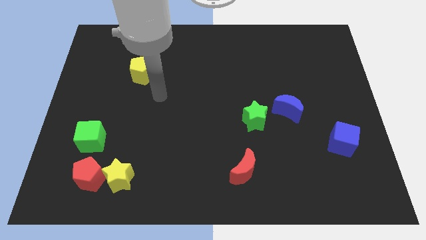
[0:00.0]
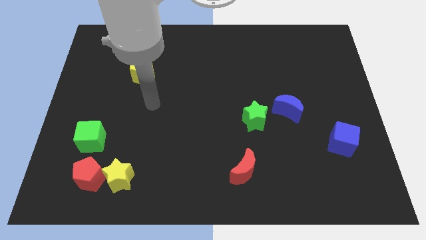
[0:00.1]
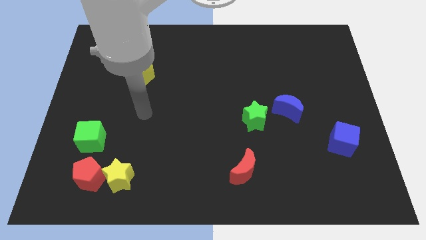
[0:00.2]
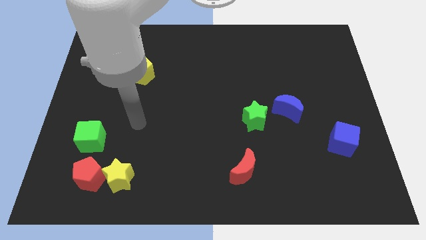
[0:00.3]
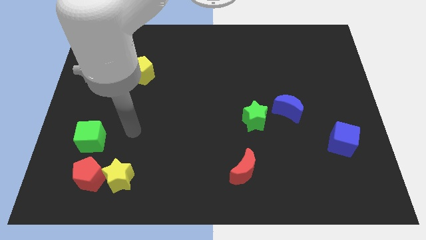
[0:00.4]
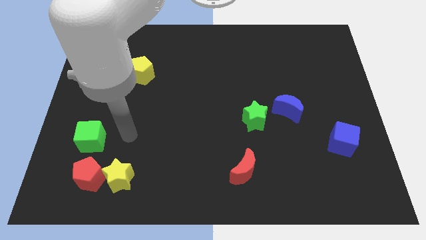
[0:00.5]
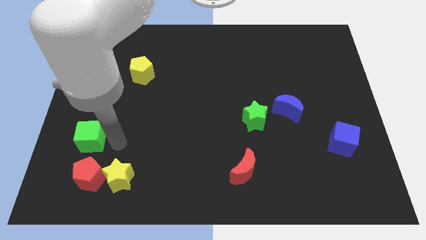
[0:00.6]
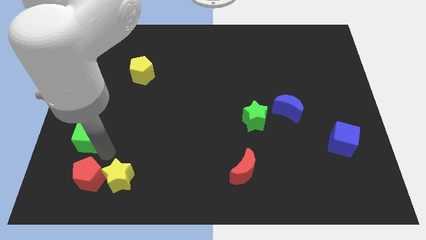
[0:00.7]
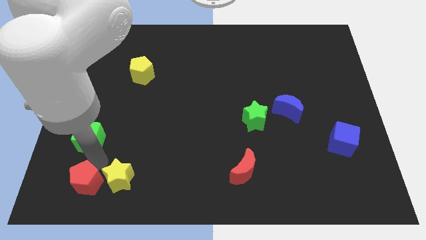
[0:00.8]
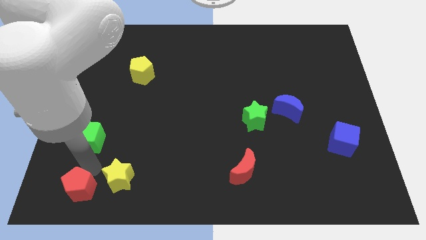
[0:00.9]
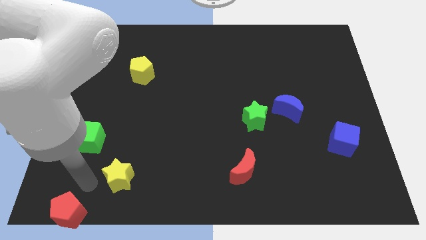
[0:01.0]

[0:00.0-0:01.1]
pull the yellow star apart from the red pentagon

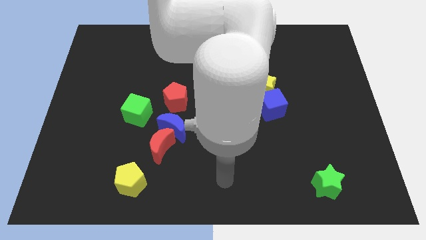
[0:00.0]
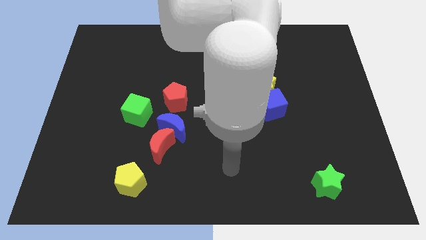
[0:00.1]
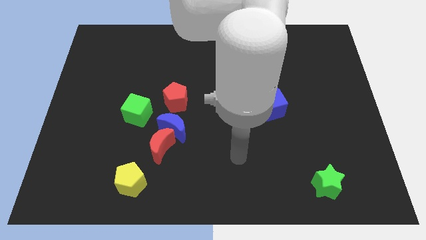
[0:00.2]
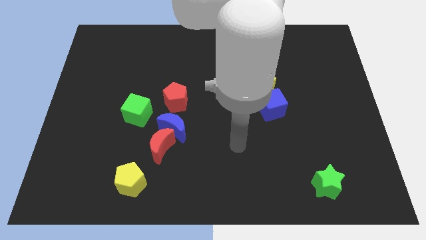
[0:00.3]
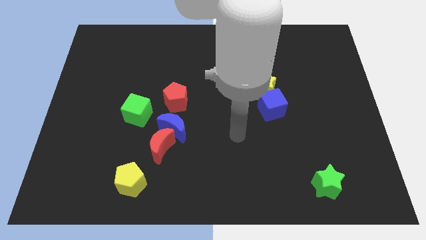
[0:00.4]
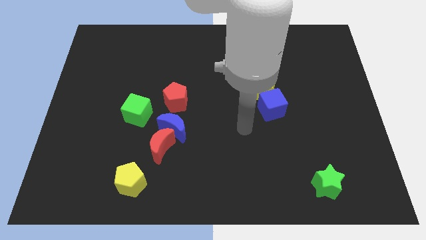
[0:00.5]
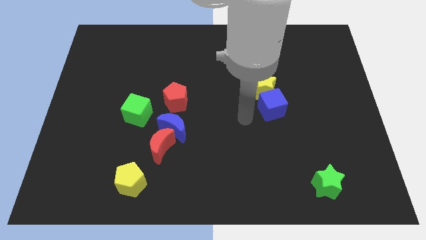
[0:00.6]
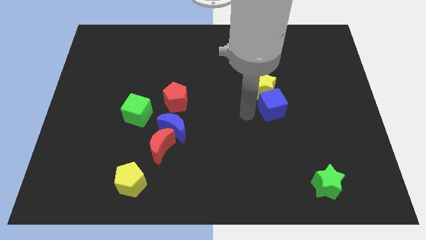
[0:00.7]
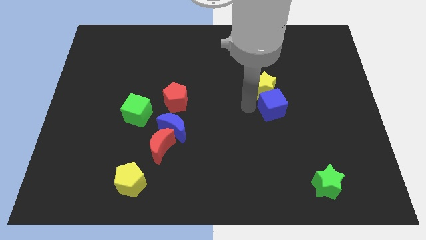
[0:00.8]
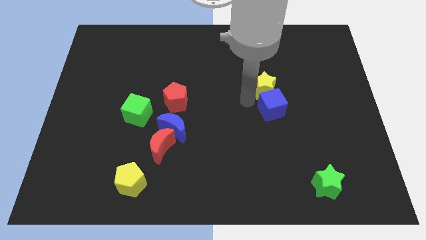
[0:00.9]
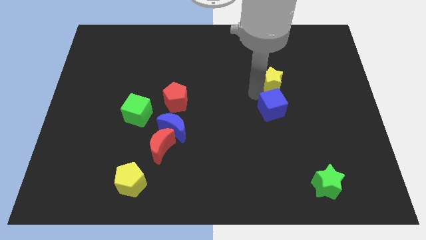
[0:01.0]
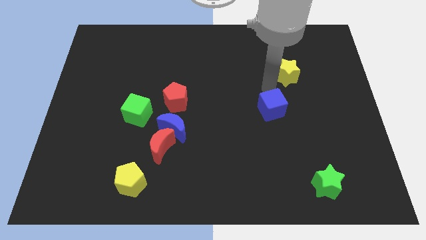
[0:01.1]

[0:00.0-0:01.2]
pull the blue cube apart from the yellow star

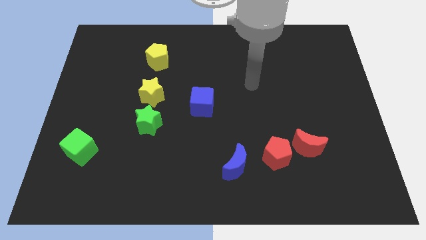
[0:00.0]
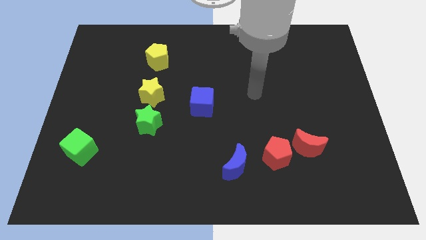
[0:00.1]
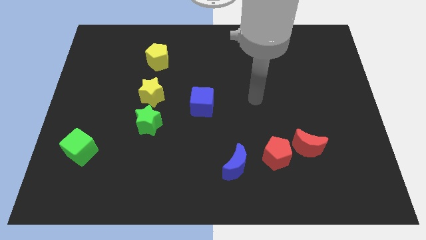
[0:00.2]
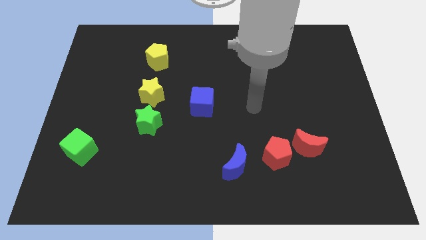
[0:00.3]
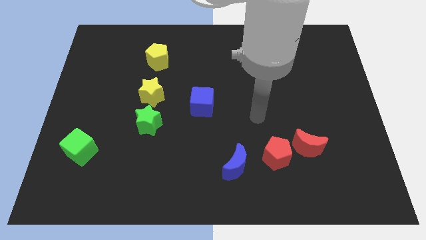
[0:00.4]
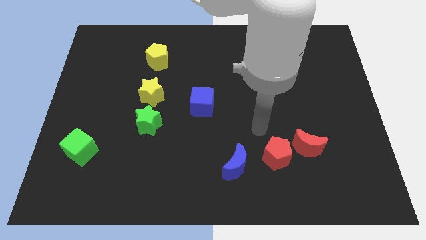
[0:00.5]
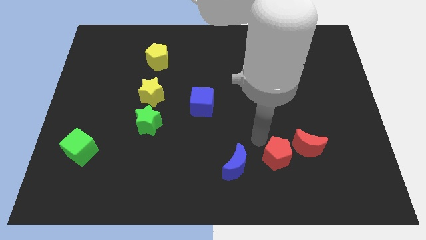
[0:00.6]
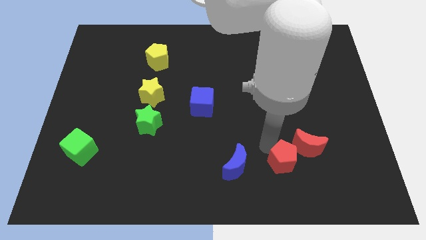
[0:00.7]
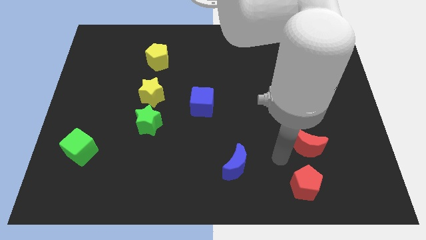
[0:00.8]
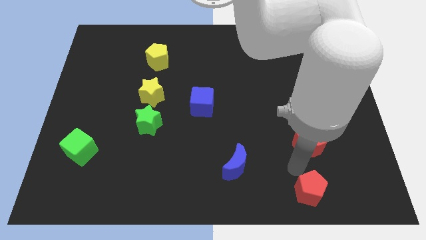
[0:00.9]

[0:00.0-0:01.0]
separate the red moon from the red pentagon

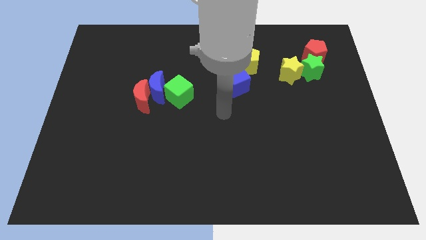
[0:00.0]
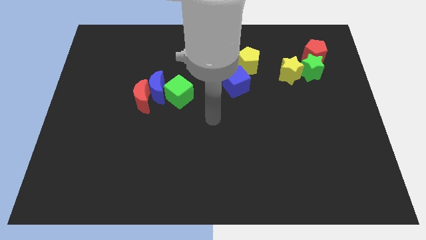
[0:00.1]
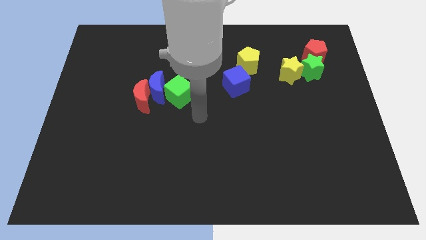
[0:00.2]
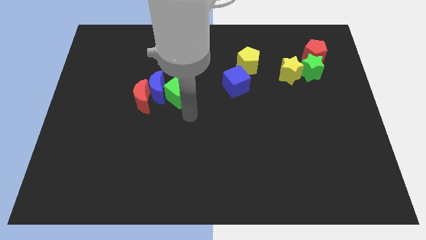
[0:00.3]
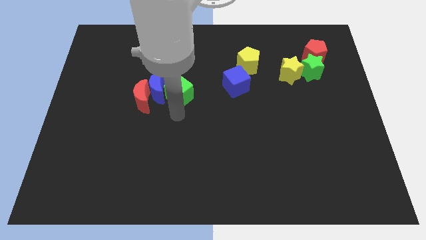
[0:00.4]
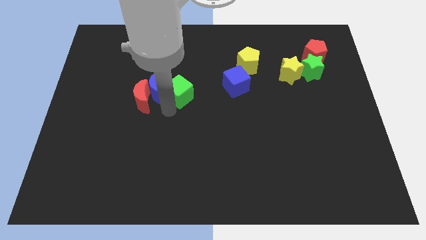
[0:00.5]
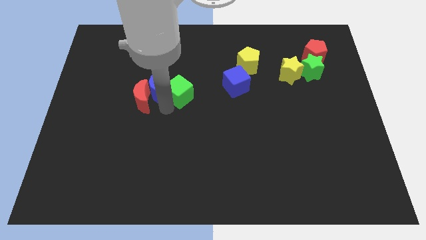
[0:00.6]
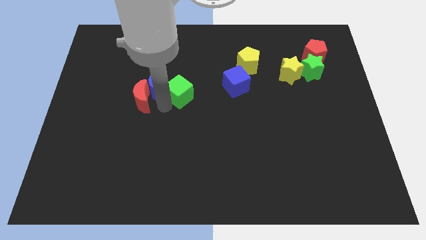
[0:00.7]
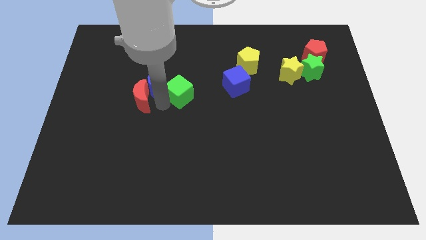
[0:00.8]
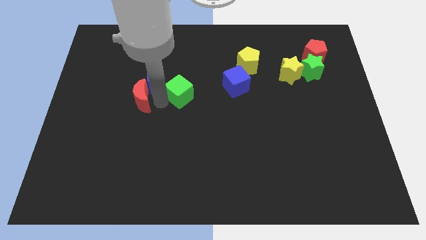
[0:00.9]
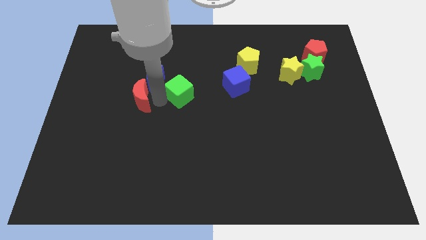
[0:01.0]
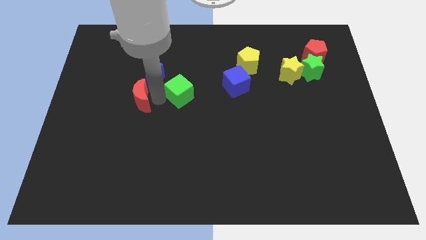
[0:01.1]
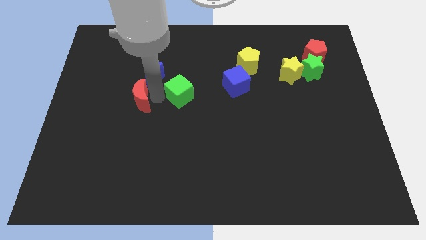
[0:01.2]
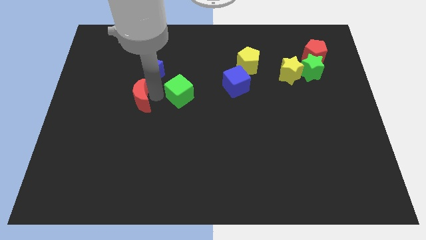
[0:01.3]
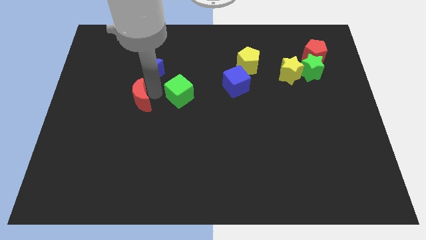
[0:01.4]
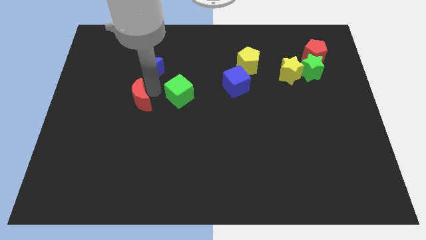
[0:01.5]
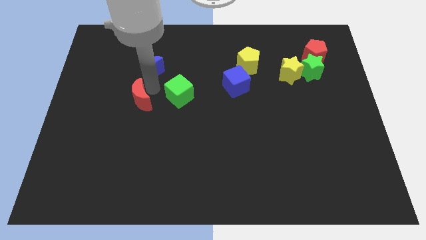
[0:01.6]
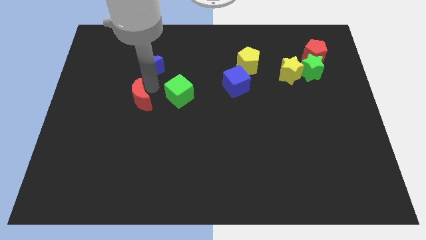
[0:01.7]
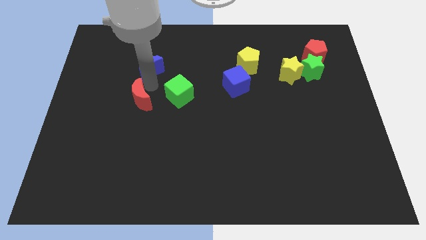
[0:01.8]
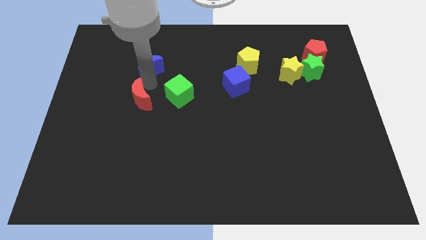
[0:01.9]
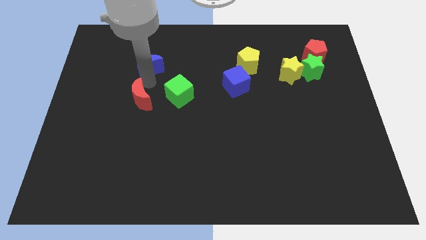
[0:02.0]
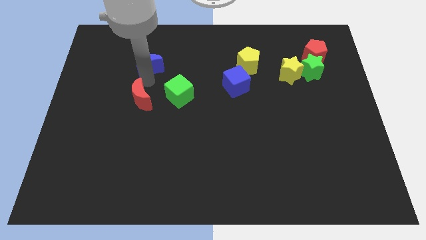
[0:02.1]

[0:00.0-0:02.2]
pull the blue moon apart from the red moon and green cube

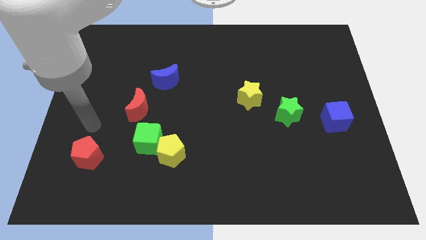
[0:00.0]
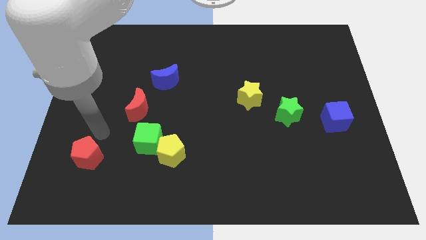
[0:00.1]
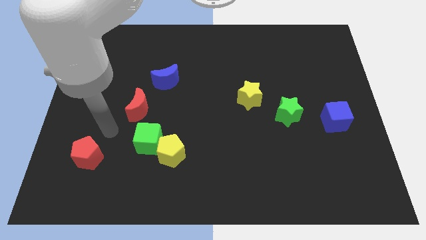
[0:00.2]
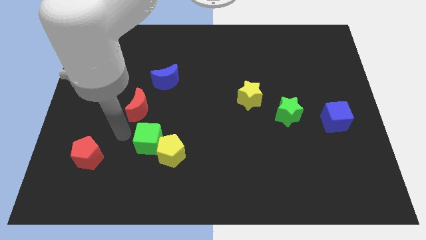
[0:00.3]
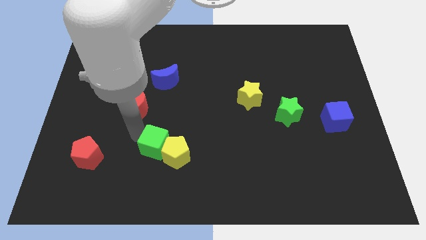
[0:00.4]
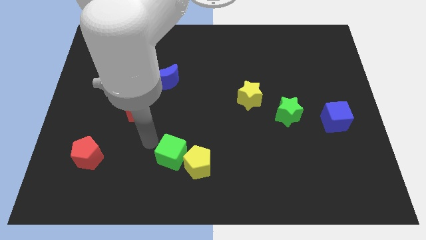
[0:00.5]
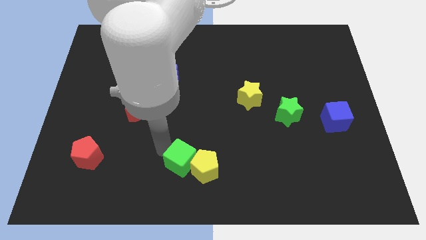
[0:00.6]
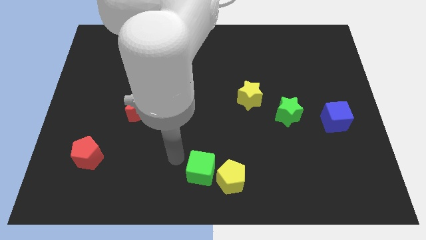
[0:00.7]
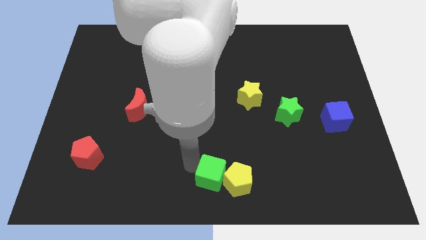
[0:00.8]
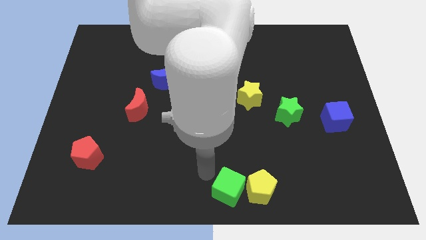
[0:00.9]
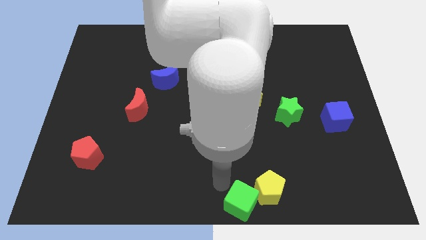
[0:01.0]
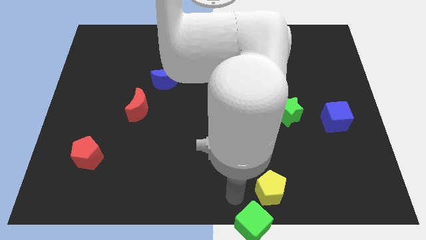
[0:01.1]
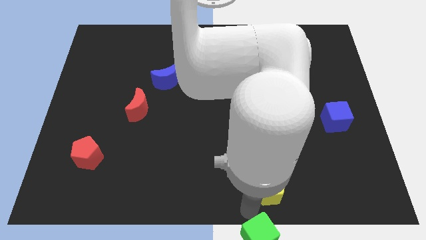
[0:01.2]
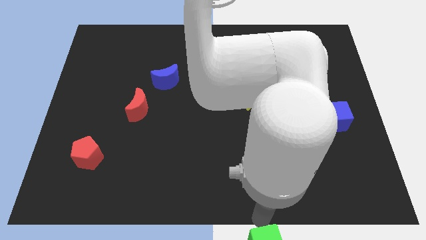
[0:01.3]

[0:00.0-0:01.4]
pull the yellow pentagon apart from the green cube

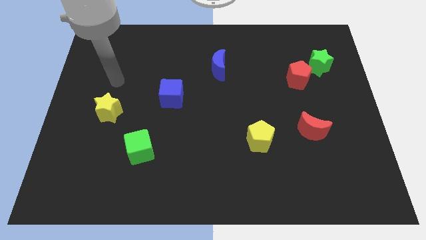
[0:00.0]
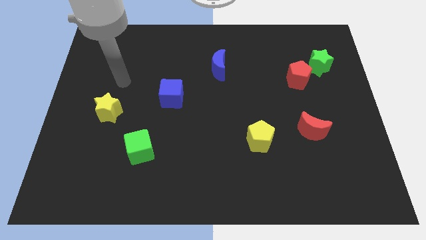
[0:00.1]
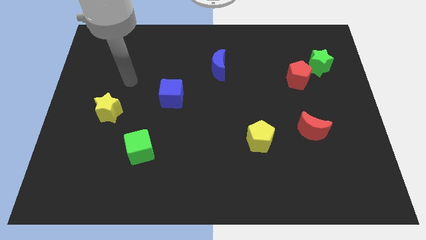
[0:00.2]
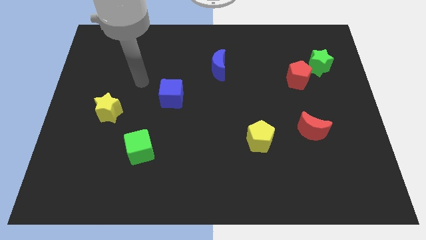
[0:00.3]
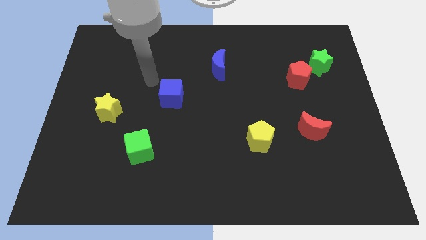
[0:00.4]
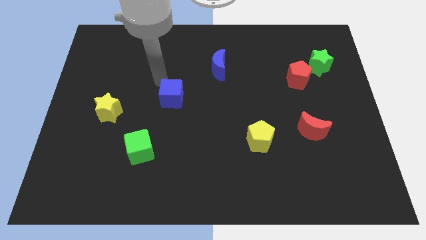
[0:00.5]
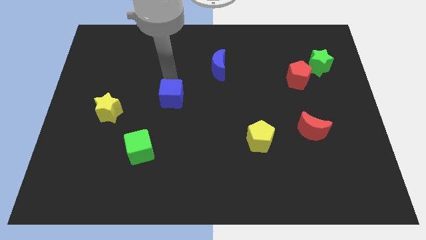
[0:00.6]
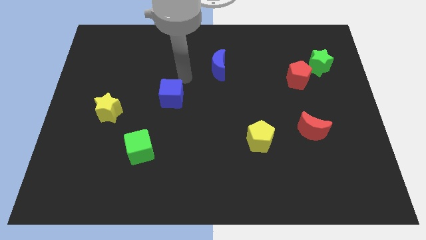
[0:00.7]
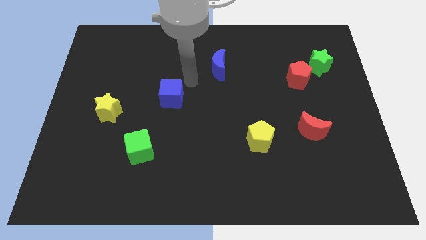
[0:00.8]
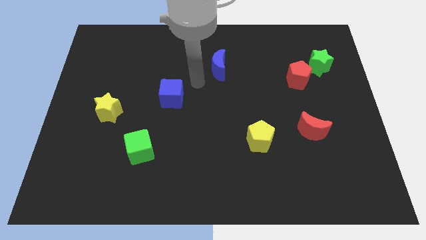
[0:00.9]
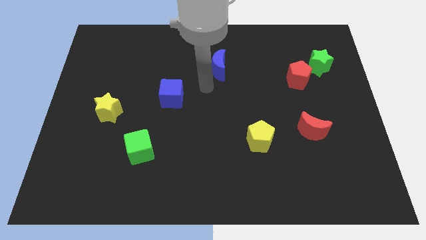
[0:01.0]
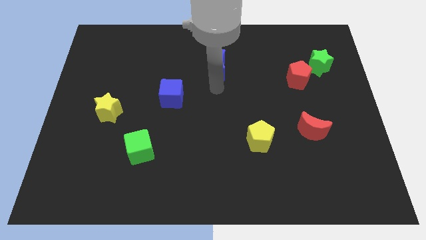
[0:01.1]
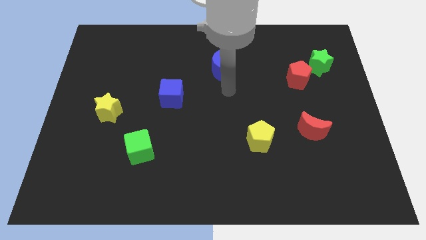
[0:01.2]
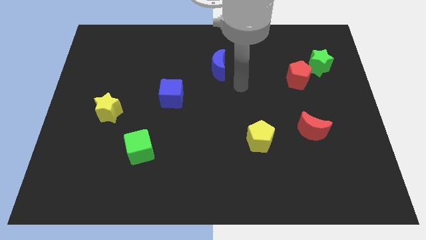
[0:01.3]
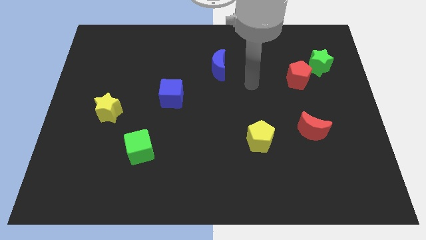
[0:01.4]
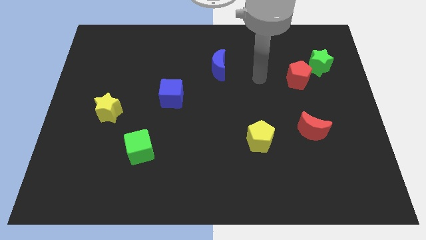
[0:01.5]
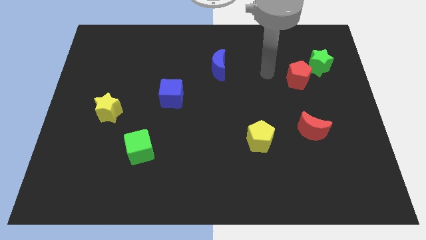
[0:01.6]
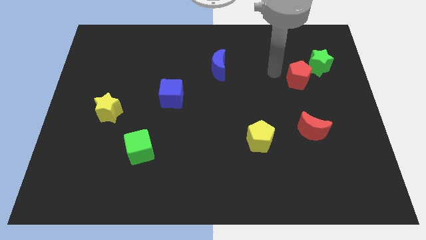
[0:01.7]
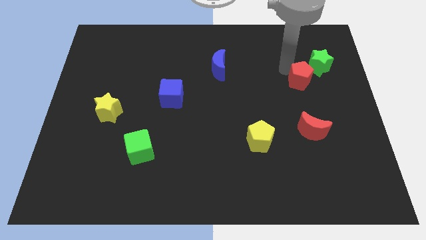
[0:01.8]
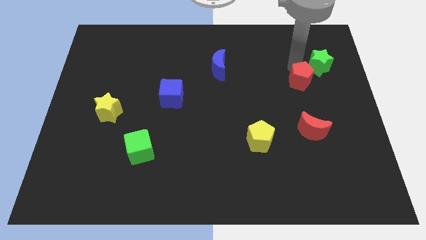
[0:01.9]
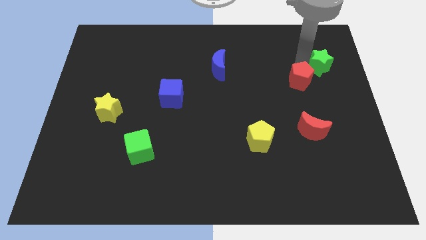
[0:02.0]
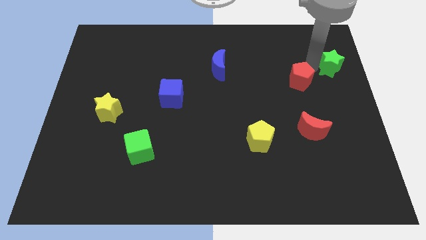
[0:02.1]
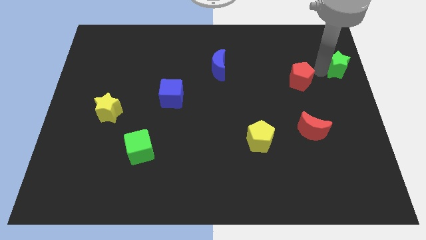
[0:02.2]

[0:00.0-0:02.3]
pull the red pentagon apart from the green star

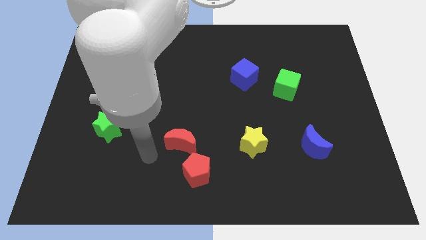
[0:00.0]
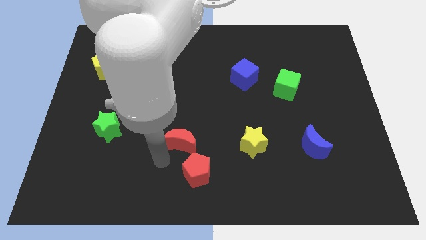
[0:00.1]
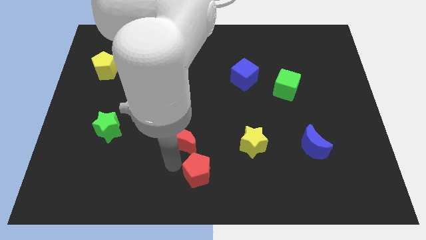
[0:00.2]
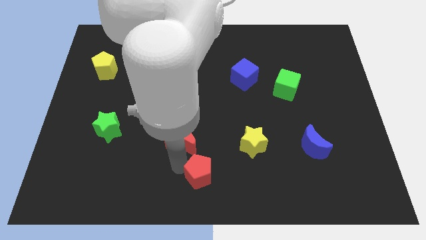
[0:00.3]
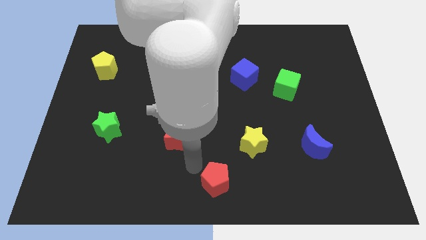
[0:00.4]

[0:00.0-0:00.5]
move the red moon away from the red pentagon
